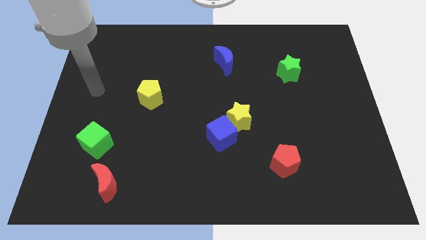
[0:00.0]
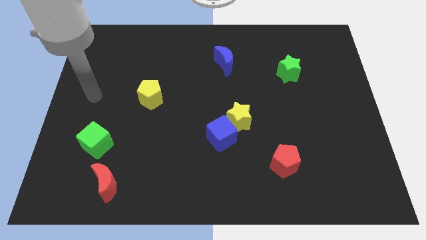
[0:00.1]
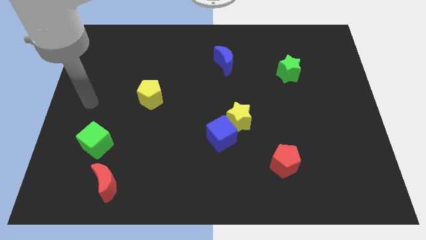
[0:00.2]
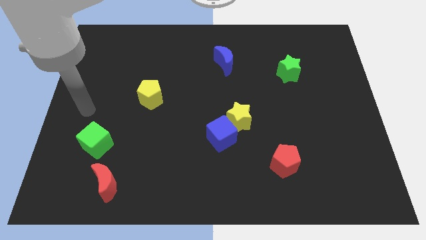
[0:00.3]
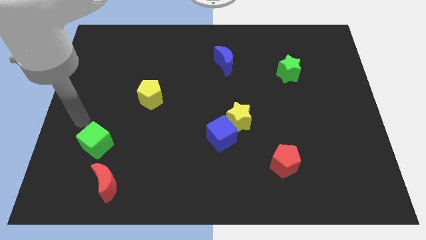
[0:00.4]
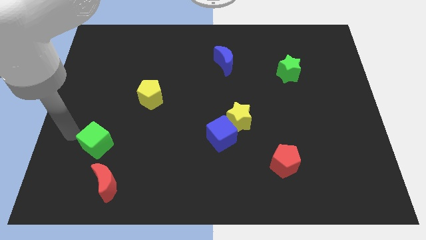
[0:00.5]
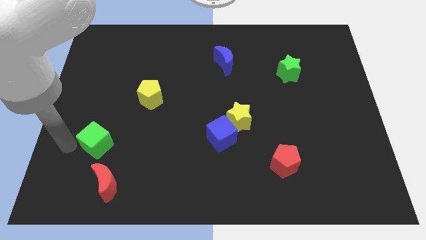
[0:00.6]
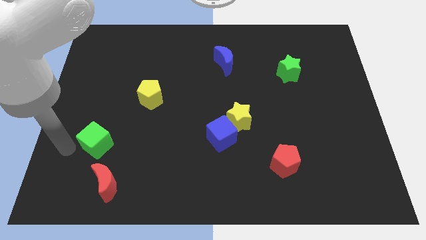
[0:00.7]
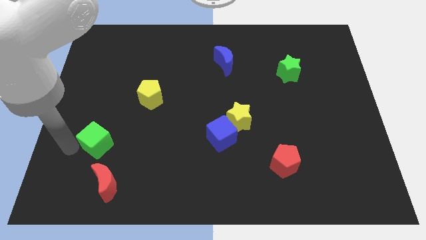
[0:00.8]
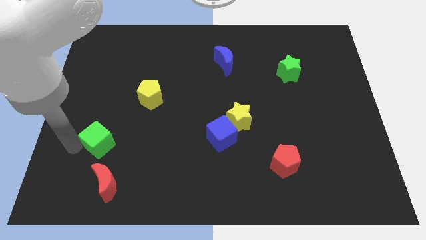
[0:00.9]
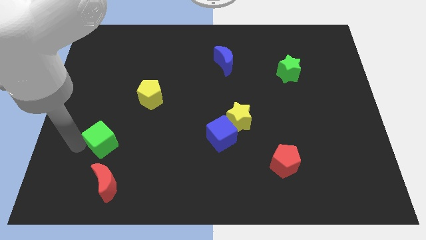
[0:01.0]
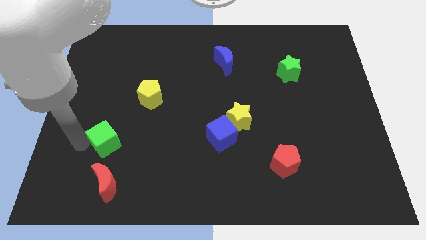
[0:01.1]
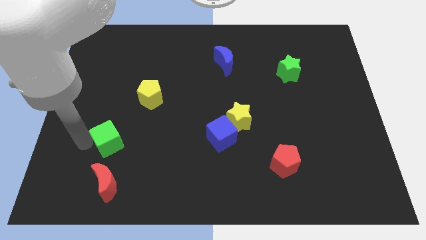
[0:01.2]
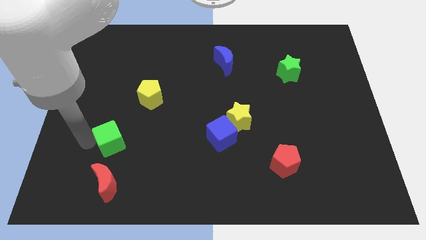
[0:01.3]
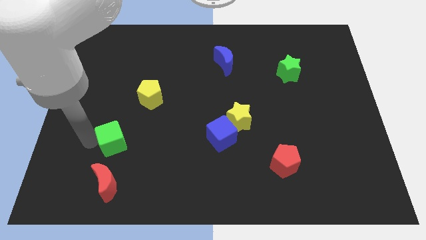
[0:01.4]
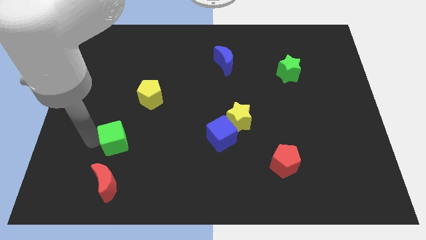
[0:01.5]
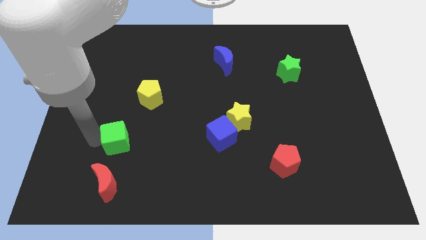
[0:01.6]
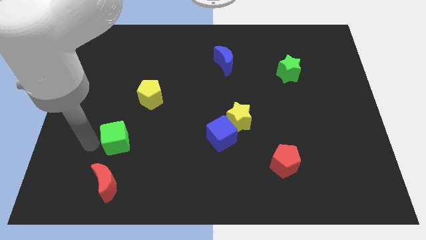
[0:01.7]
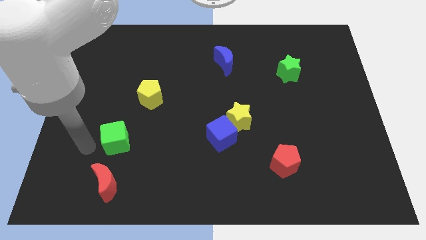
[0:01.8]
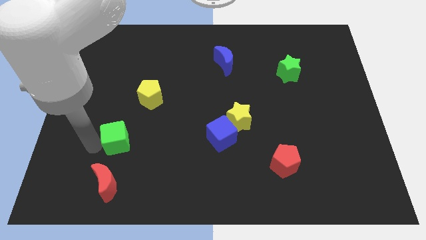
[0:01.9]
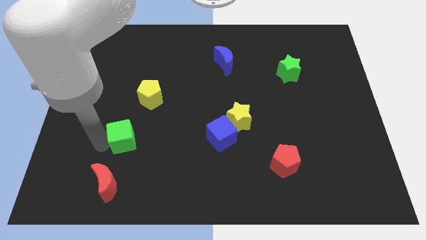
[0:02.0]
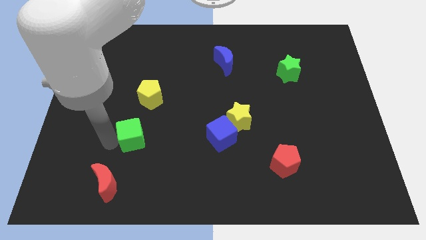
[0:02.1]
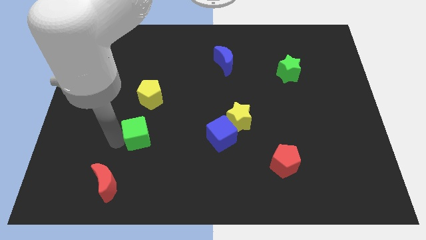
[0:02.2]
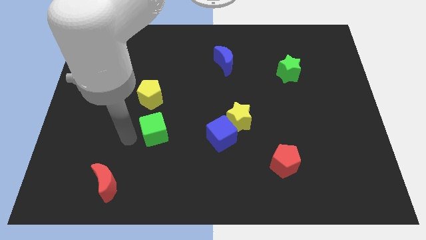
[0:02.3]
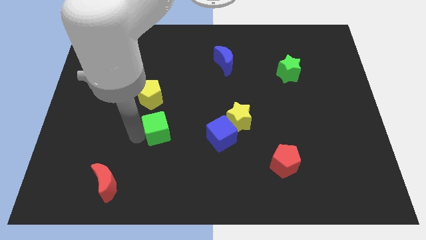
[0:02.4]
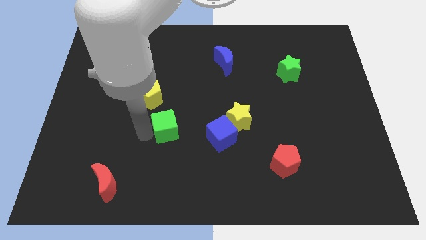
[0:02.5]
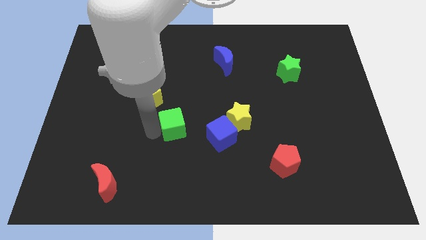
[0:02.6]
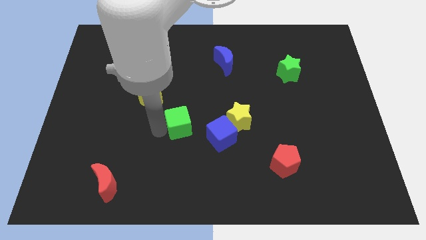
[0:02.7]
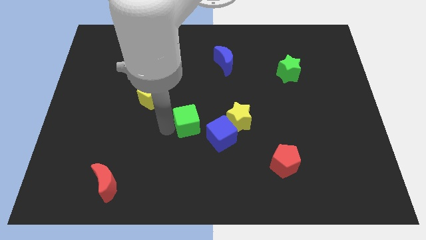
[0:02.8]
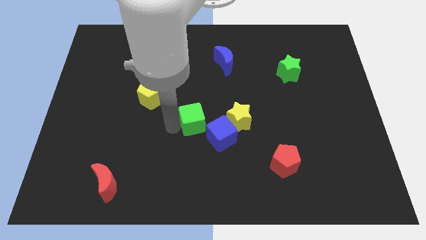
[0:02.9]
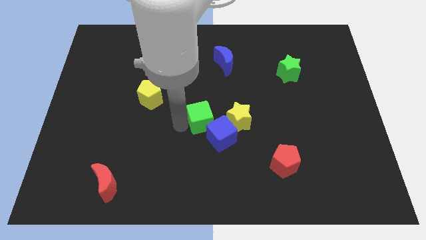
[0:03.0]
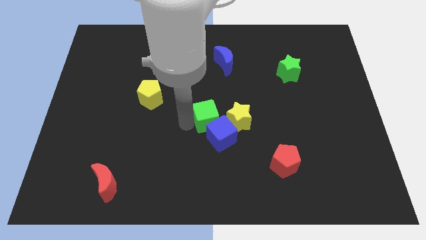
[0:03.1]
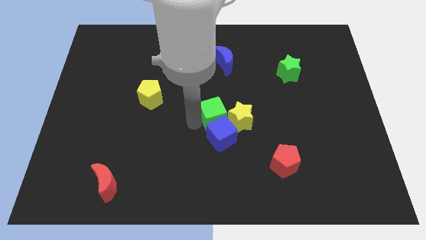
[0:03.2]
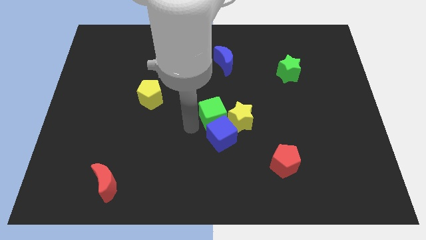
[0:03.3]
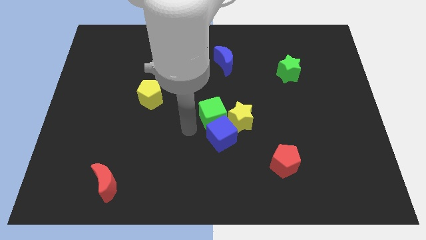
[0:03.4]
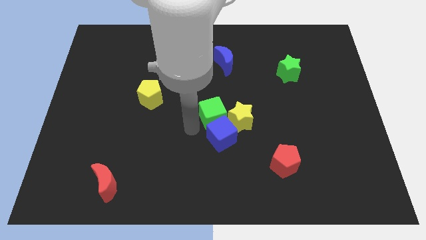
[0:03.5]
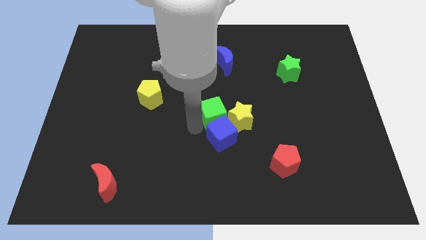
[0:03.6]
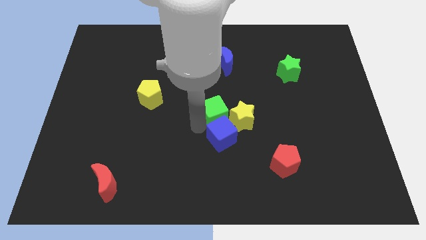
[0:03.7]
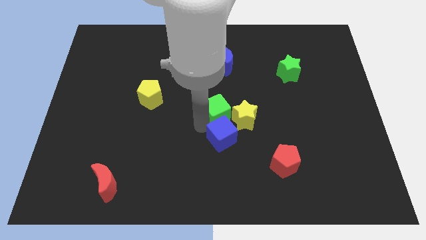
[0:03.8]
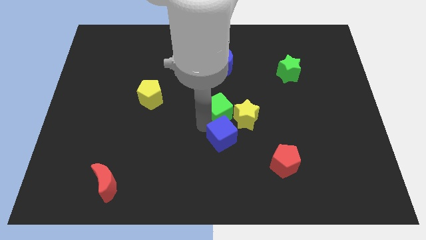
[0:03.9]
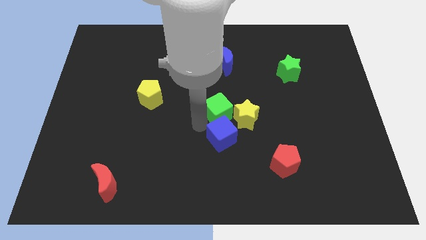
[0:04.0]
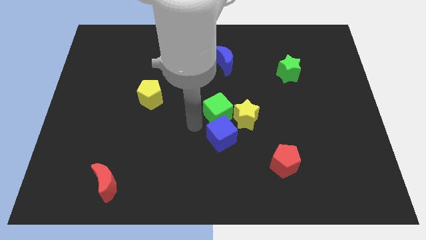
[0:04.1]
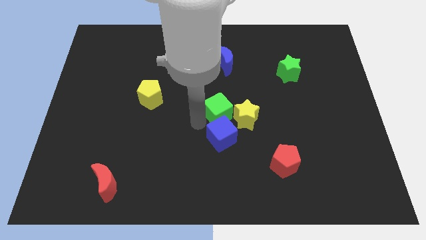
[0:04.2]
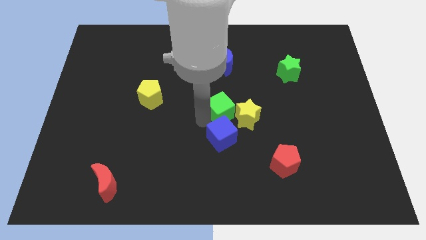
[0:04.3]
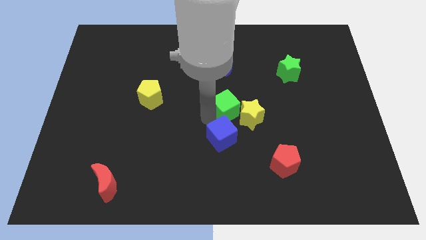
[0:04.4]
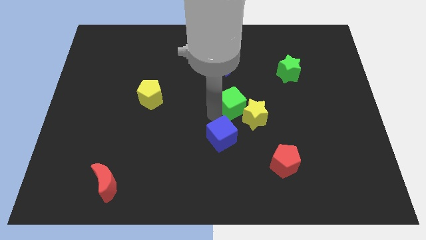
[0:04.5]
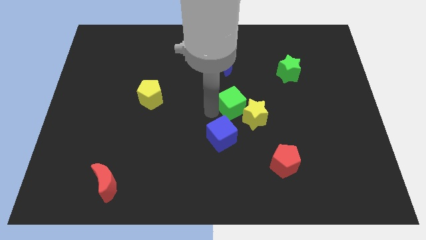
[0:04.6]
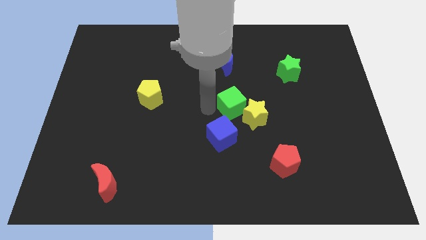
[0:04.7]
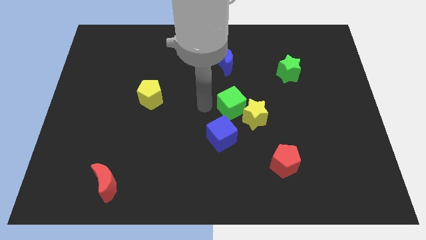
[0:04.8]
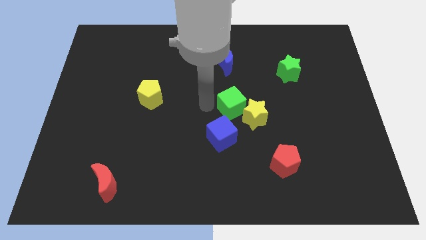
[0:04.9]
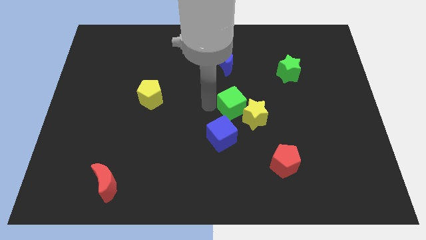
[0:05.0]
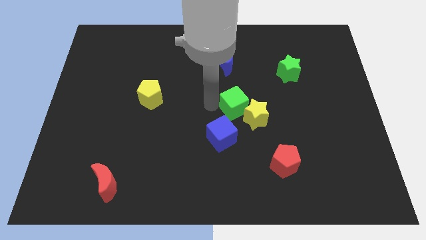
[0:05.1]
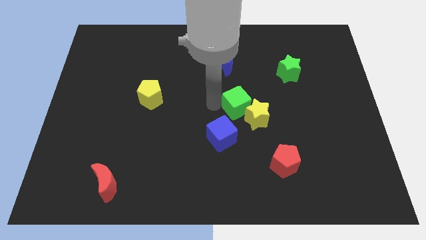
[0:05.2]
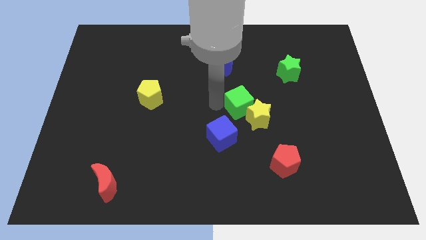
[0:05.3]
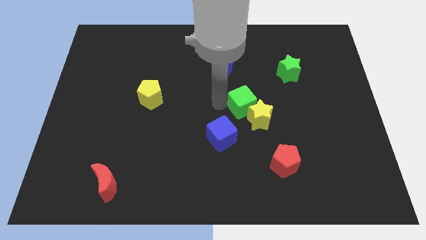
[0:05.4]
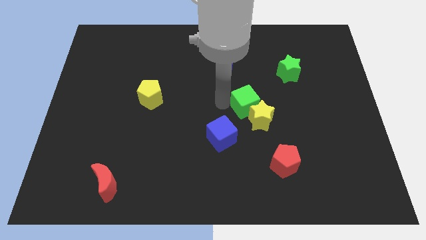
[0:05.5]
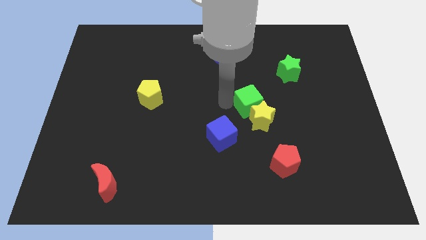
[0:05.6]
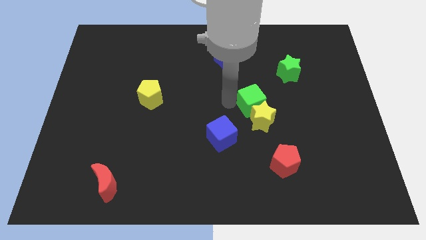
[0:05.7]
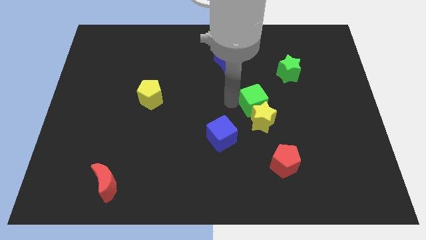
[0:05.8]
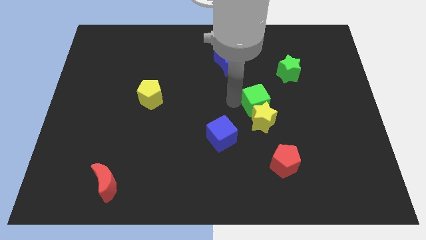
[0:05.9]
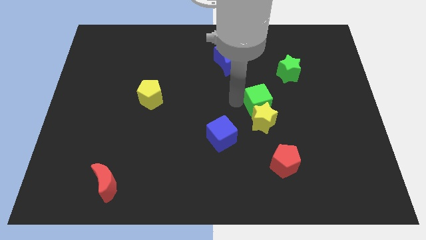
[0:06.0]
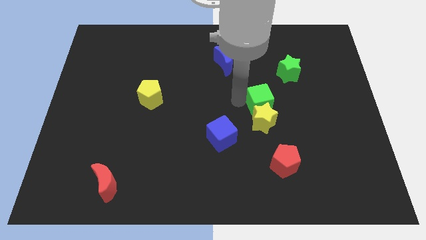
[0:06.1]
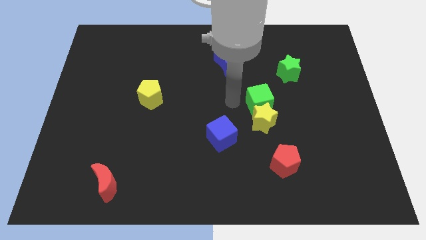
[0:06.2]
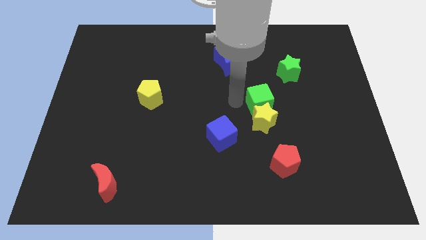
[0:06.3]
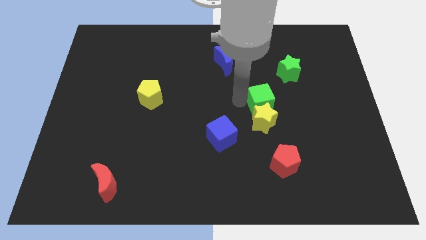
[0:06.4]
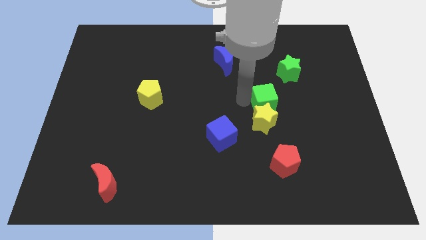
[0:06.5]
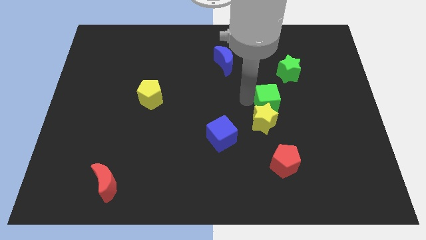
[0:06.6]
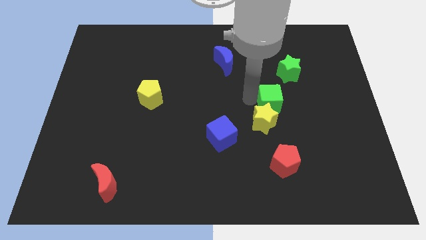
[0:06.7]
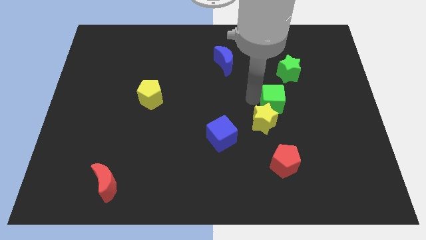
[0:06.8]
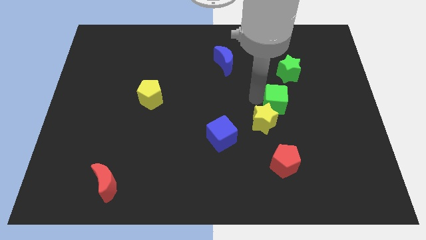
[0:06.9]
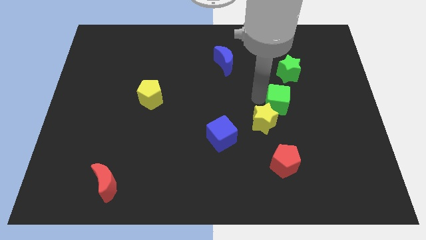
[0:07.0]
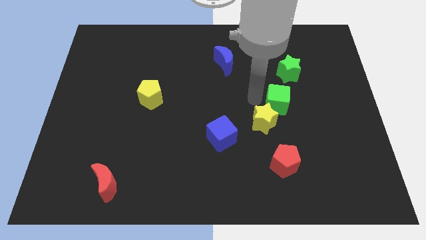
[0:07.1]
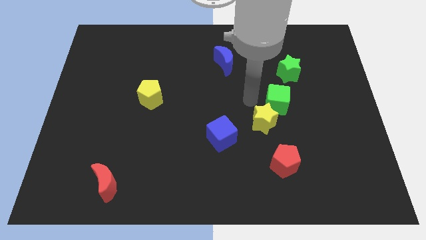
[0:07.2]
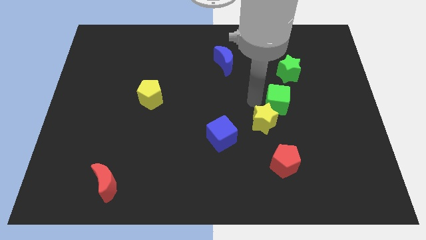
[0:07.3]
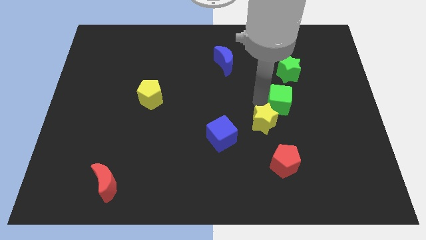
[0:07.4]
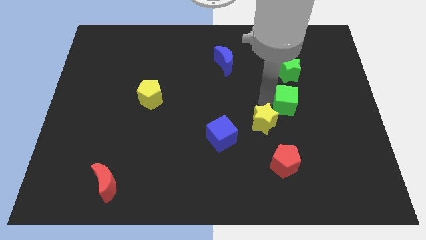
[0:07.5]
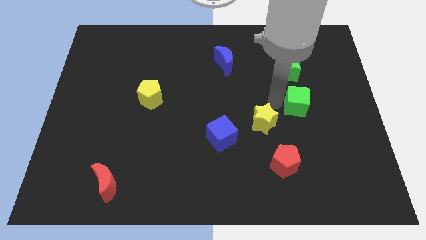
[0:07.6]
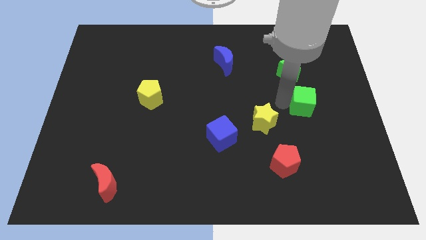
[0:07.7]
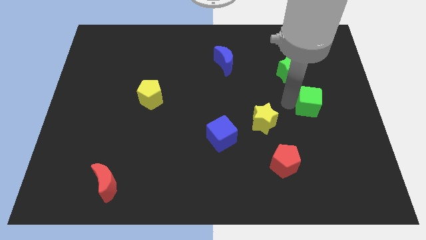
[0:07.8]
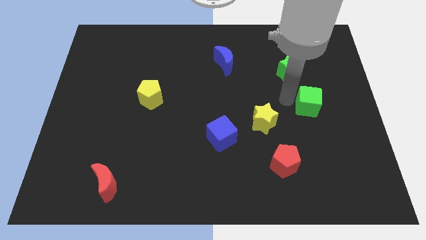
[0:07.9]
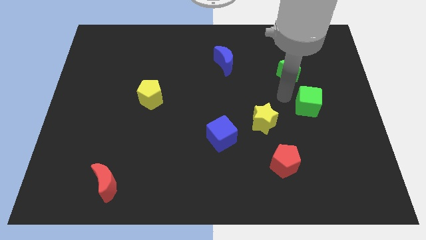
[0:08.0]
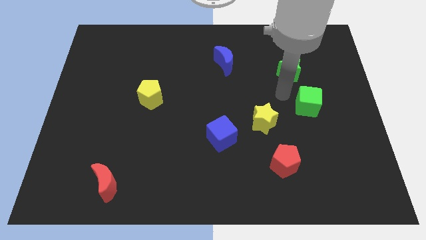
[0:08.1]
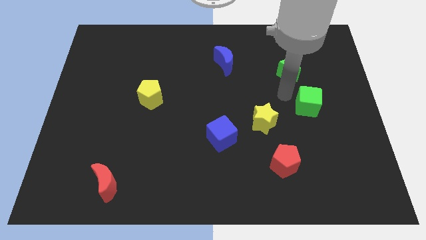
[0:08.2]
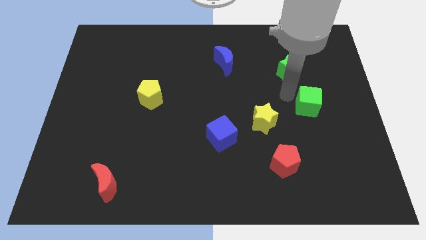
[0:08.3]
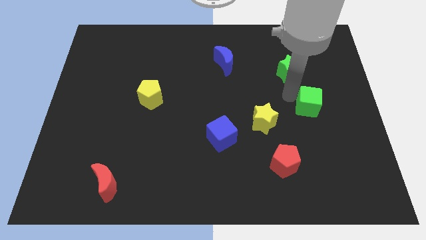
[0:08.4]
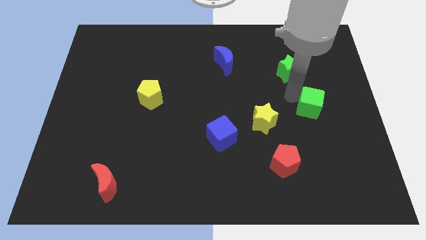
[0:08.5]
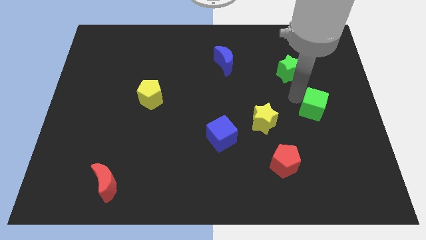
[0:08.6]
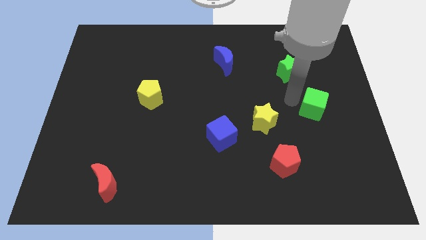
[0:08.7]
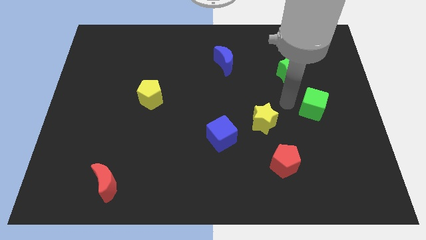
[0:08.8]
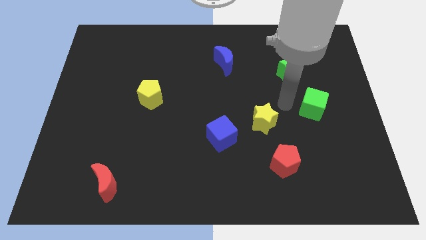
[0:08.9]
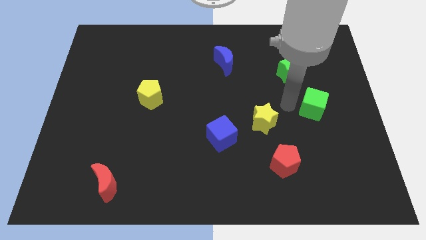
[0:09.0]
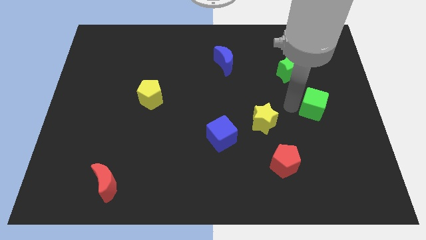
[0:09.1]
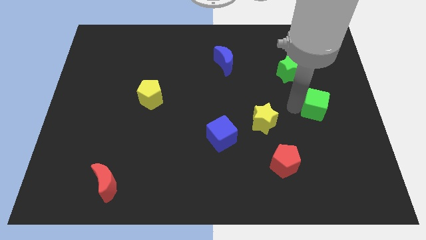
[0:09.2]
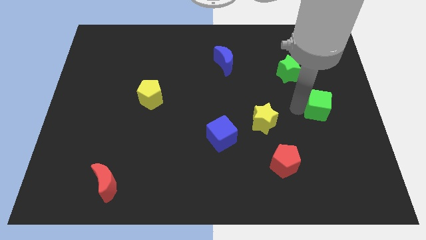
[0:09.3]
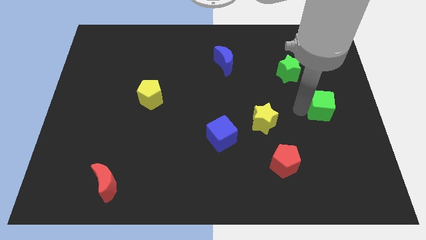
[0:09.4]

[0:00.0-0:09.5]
move the green cube to the center right
